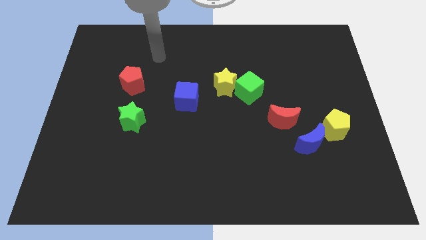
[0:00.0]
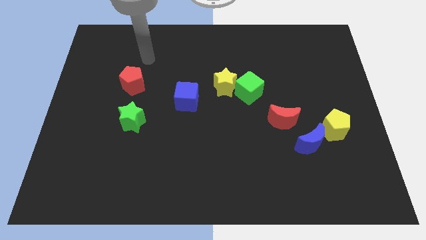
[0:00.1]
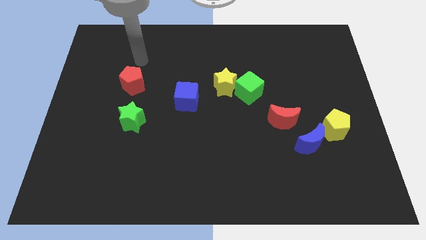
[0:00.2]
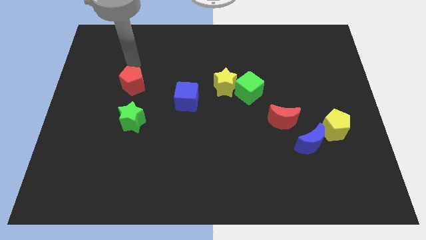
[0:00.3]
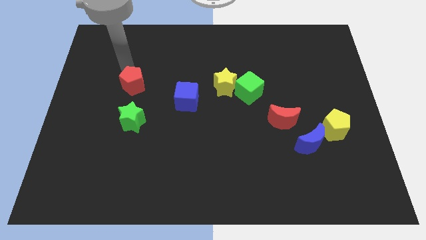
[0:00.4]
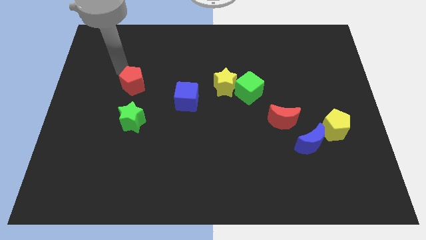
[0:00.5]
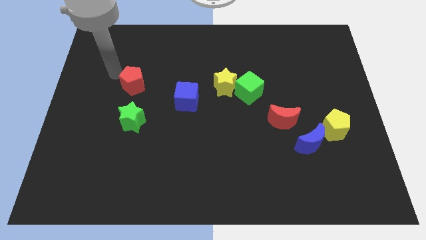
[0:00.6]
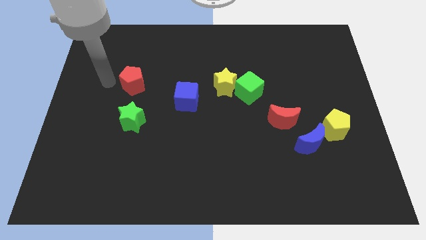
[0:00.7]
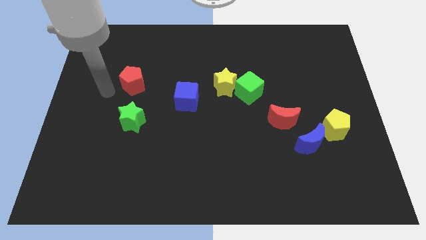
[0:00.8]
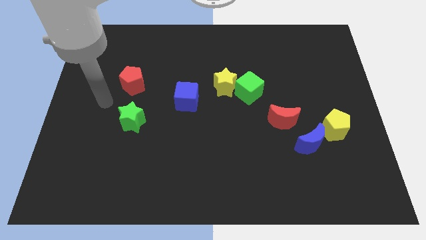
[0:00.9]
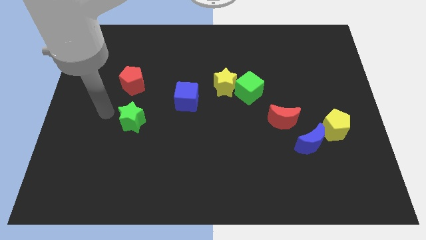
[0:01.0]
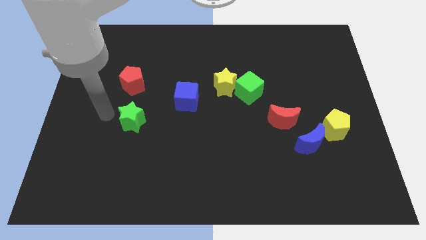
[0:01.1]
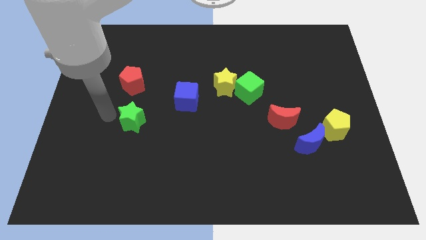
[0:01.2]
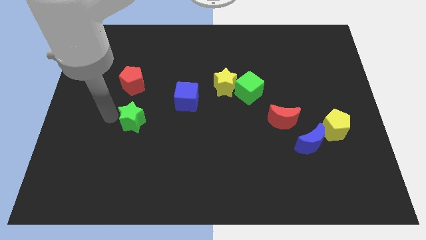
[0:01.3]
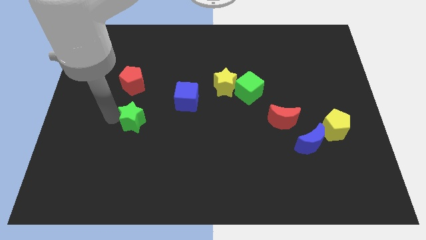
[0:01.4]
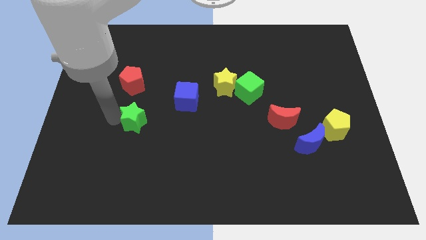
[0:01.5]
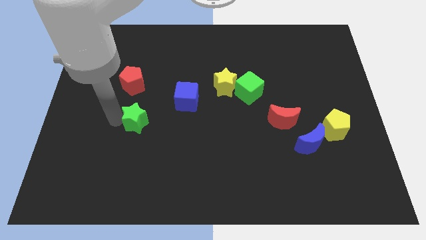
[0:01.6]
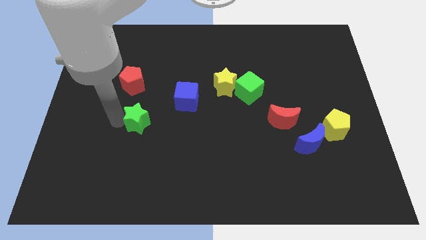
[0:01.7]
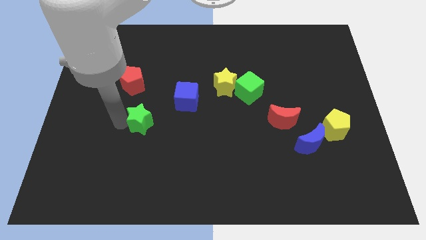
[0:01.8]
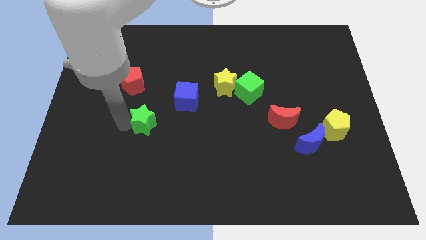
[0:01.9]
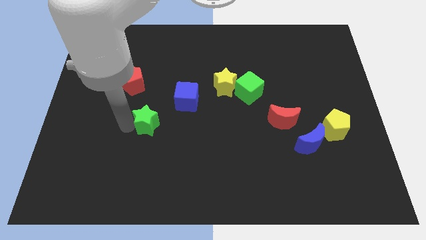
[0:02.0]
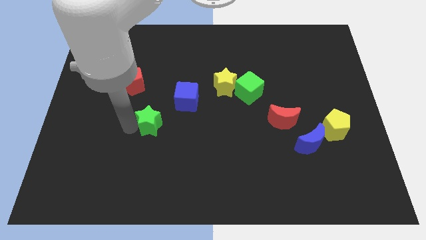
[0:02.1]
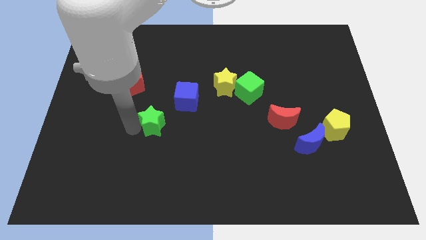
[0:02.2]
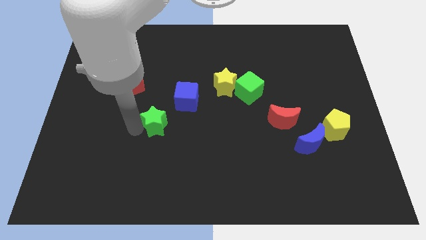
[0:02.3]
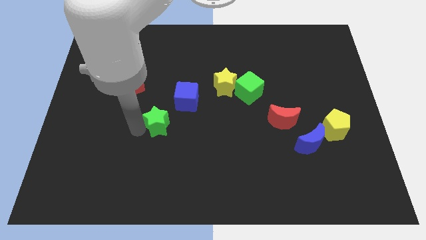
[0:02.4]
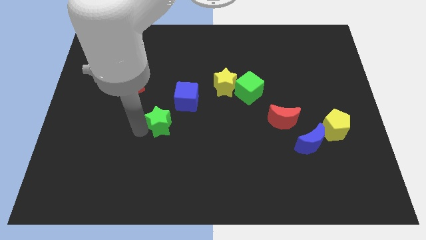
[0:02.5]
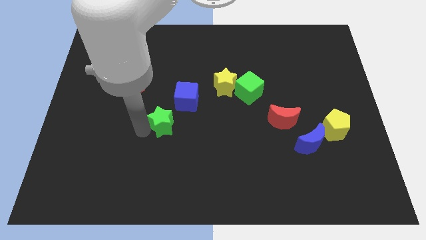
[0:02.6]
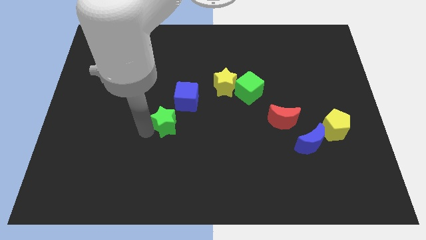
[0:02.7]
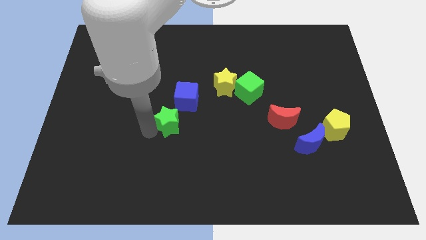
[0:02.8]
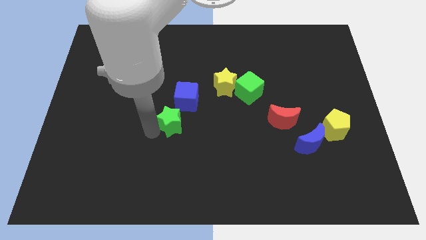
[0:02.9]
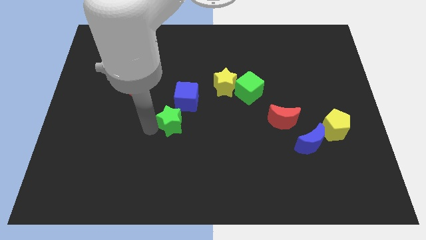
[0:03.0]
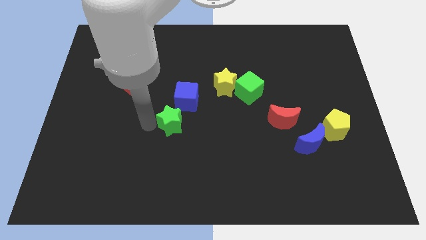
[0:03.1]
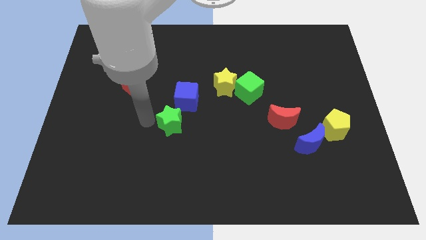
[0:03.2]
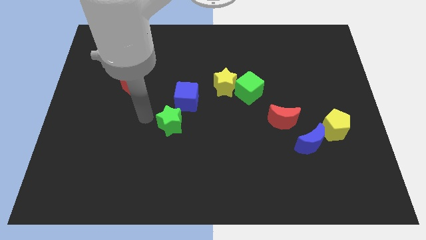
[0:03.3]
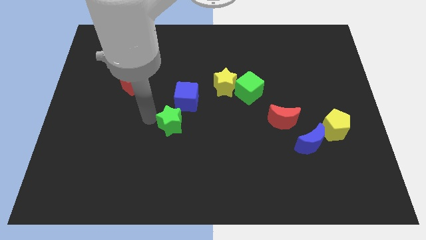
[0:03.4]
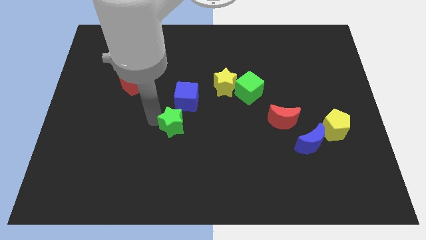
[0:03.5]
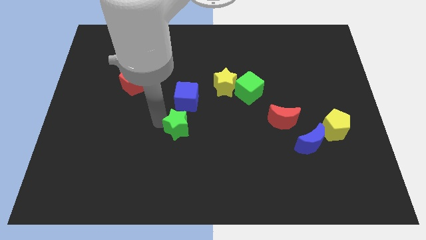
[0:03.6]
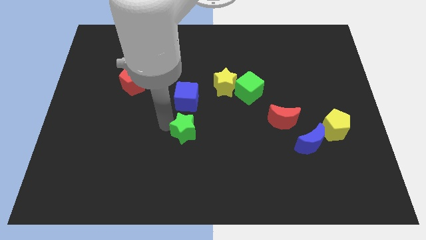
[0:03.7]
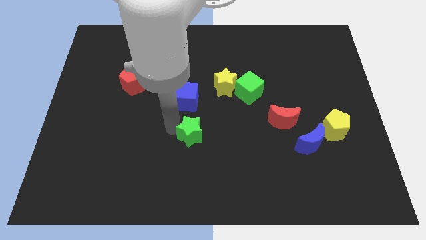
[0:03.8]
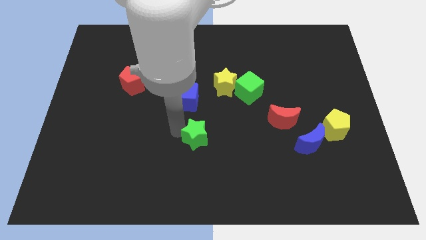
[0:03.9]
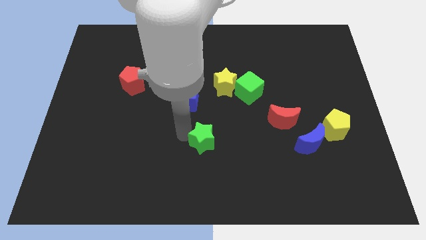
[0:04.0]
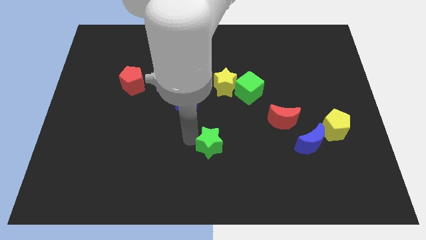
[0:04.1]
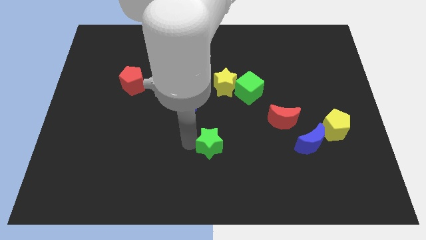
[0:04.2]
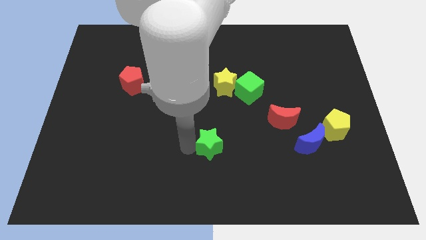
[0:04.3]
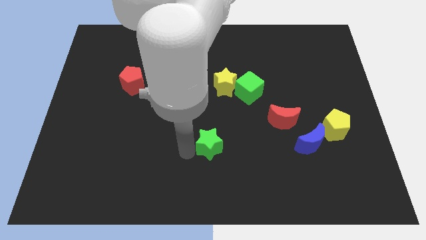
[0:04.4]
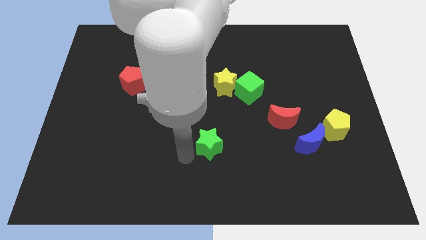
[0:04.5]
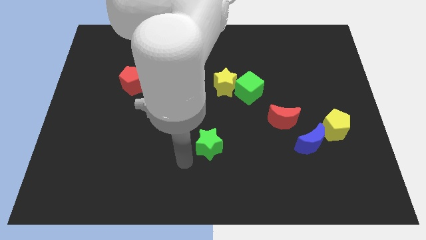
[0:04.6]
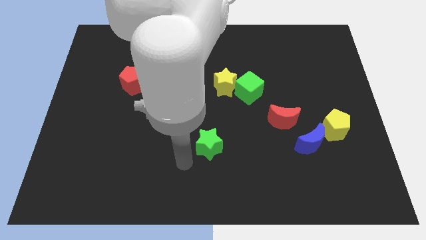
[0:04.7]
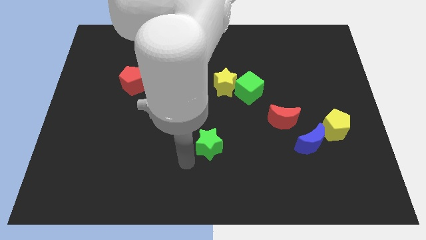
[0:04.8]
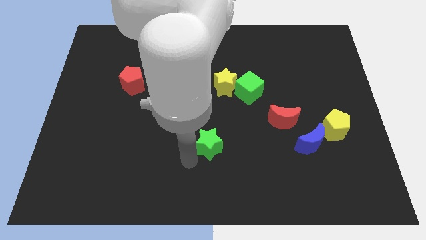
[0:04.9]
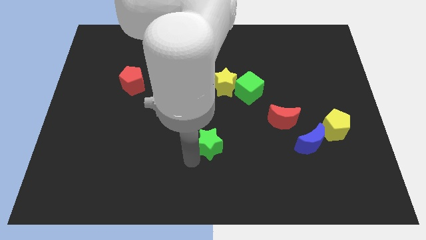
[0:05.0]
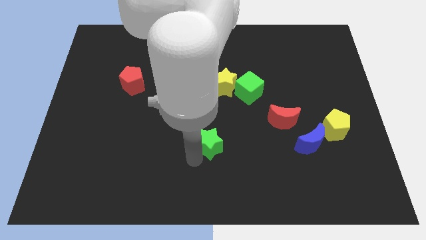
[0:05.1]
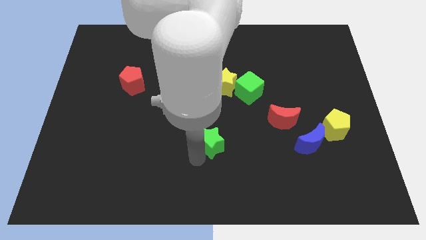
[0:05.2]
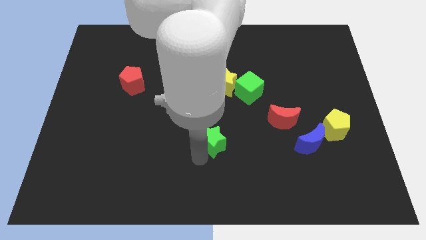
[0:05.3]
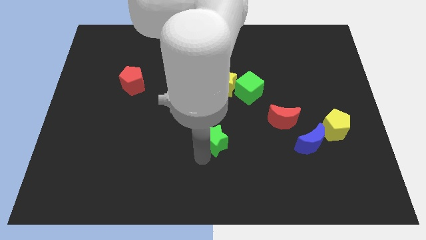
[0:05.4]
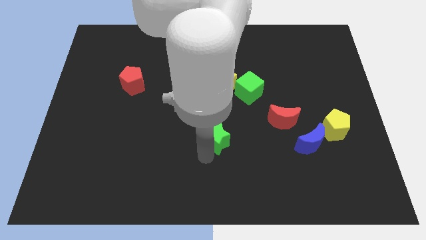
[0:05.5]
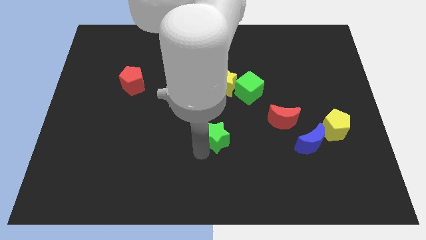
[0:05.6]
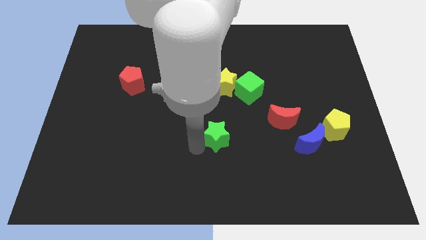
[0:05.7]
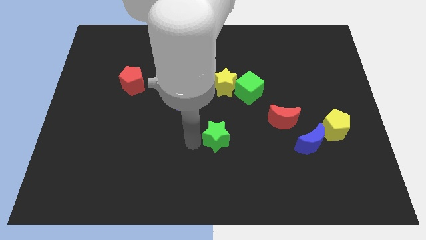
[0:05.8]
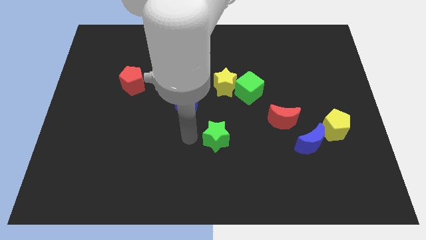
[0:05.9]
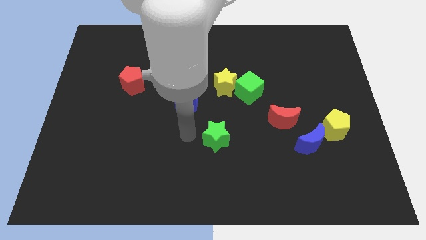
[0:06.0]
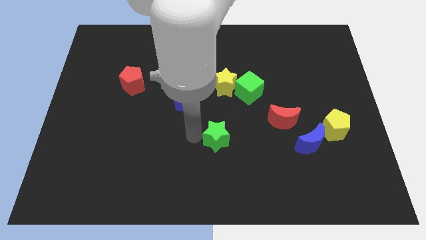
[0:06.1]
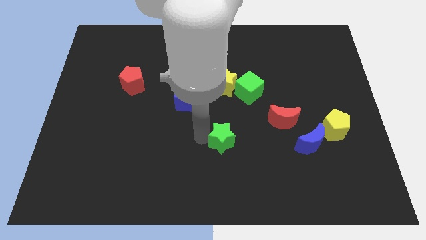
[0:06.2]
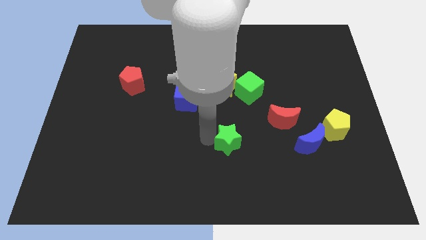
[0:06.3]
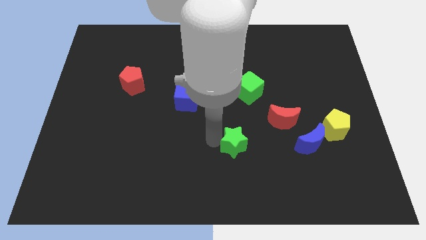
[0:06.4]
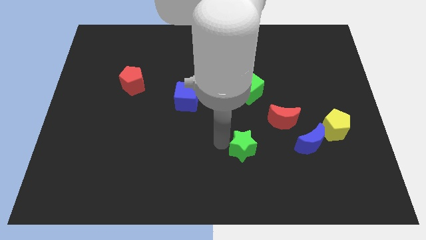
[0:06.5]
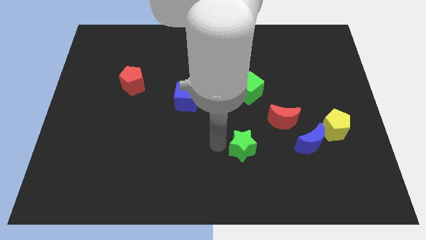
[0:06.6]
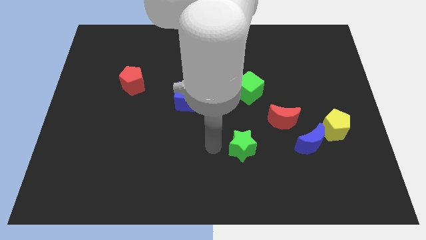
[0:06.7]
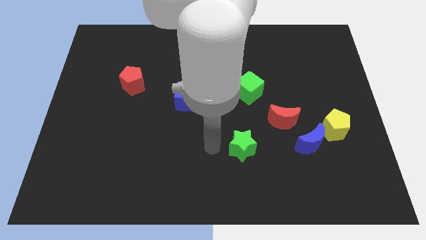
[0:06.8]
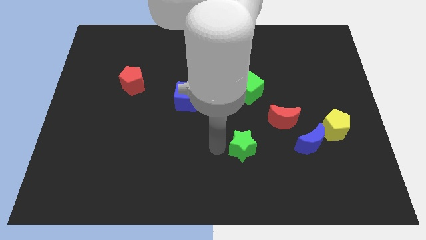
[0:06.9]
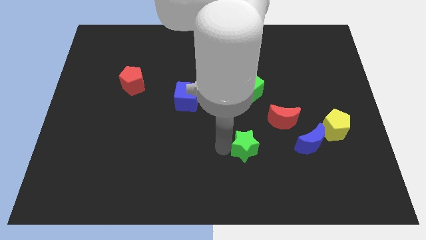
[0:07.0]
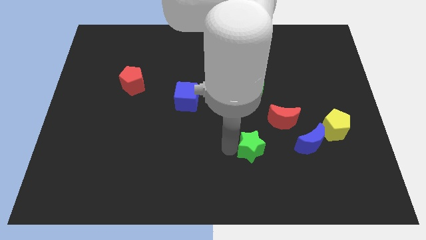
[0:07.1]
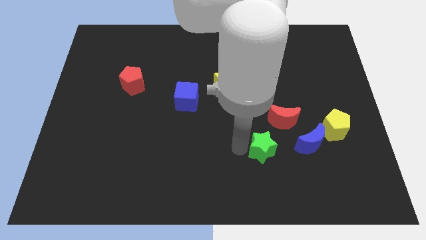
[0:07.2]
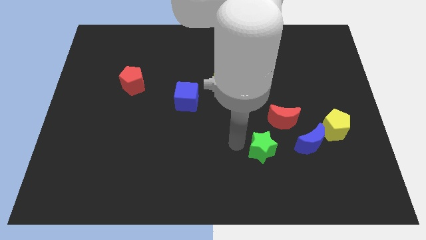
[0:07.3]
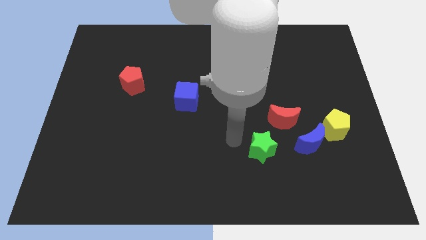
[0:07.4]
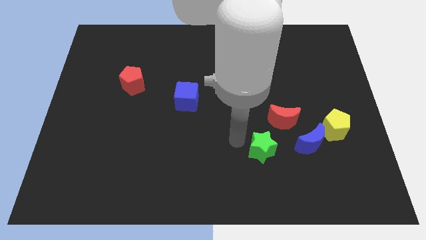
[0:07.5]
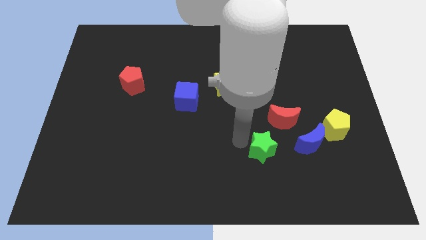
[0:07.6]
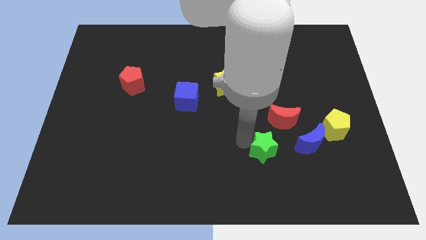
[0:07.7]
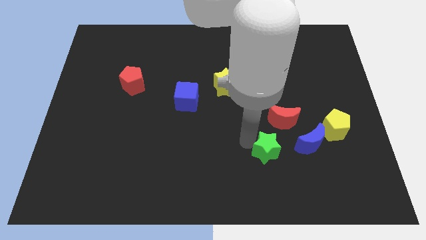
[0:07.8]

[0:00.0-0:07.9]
push the green star to the bottom side of the red moon

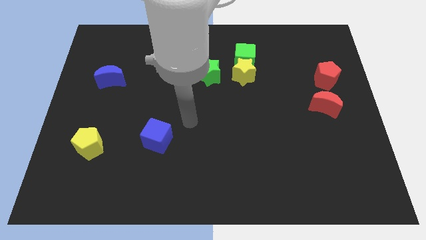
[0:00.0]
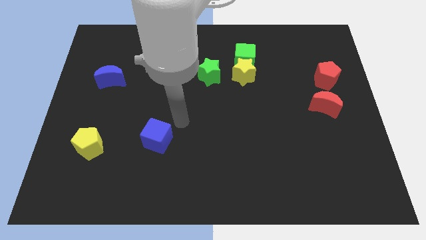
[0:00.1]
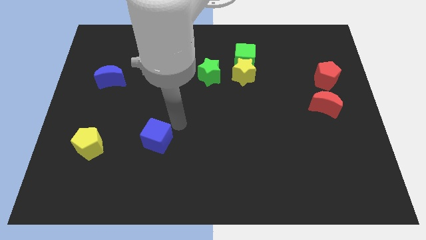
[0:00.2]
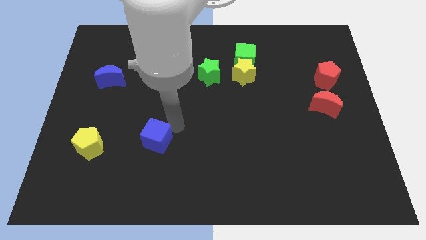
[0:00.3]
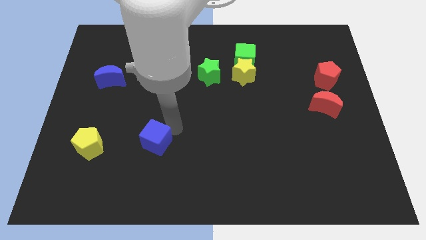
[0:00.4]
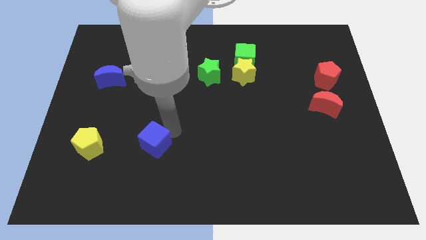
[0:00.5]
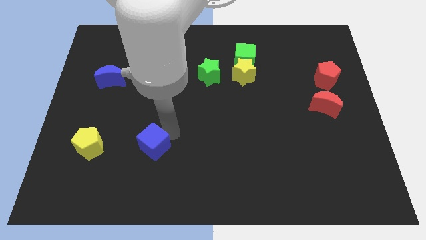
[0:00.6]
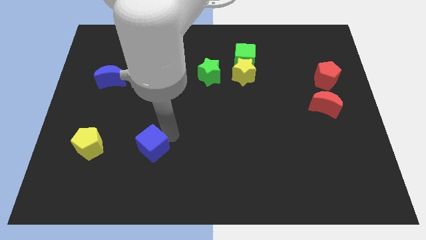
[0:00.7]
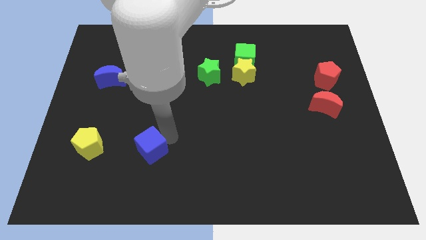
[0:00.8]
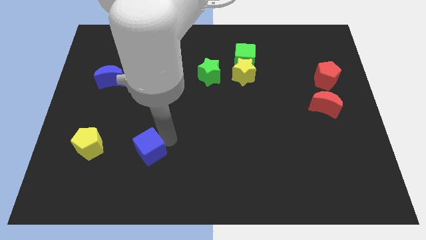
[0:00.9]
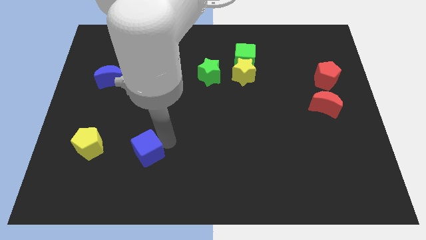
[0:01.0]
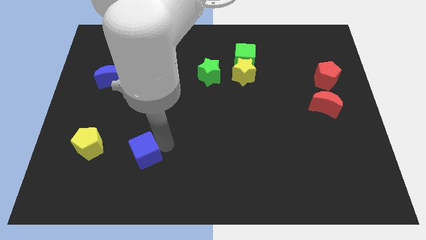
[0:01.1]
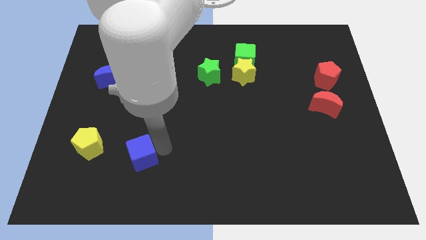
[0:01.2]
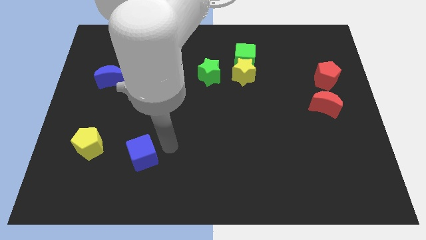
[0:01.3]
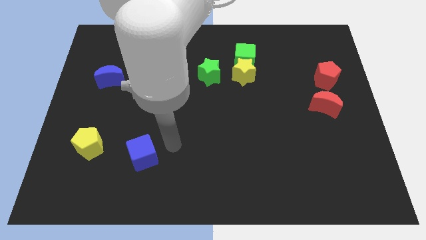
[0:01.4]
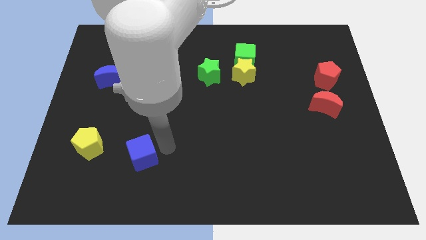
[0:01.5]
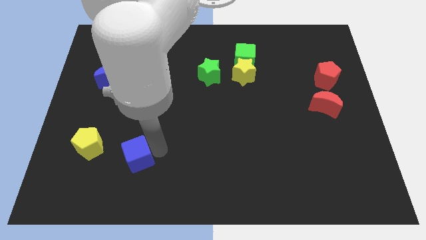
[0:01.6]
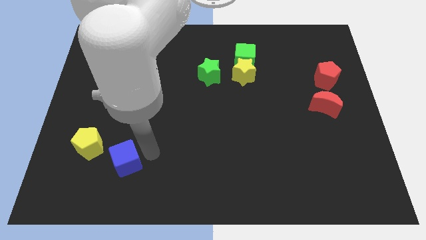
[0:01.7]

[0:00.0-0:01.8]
put the blue cube to the bottom right side of the yellow pentagon
